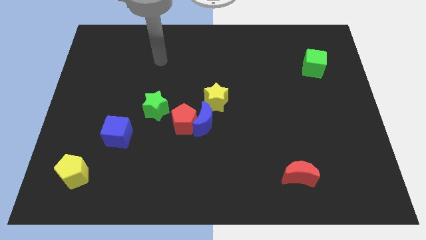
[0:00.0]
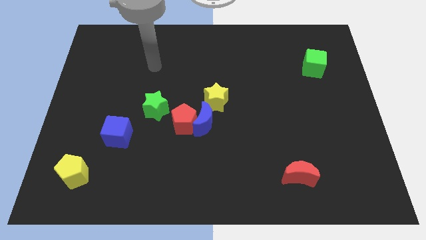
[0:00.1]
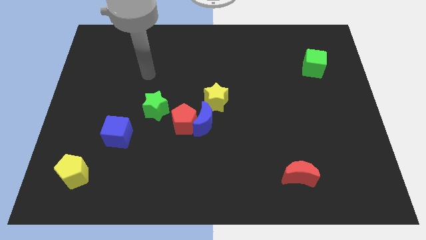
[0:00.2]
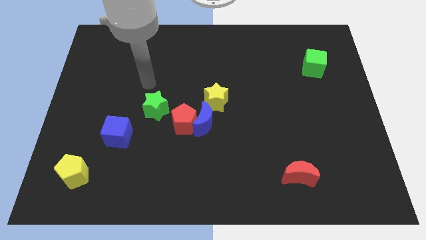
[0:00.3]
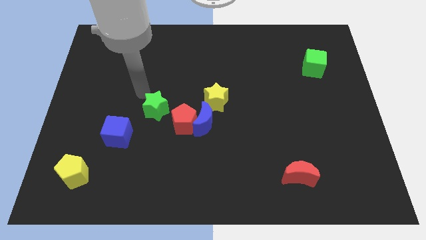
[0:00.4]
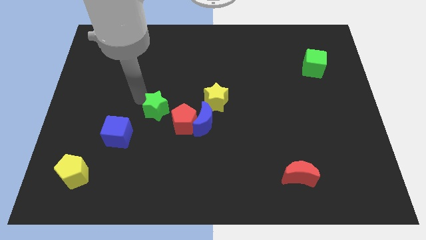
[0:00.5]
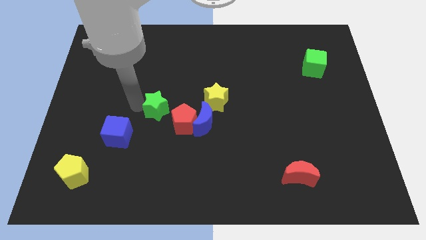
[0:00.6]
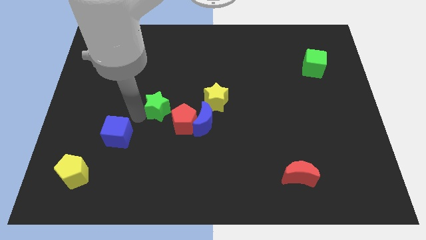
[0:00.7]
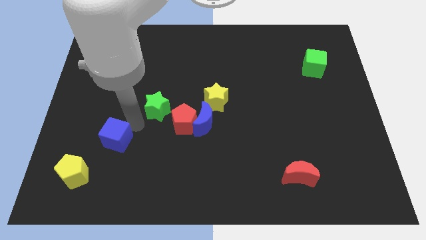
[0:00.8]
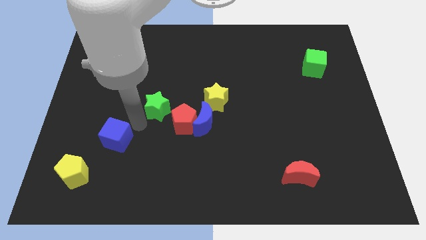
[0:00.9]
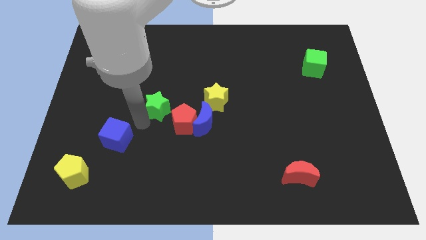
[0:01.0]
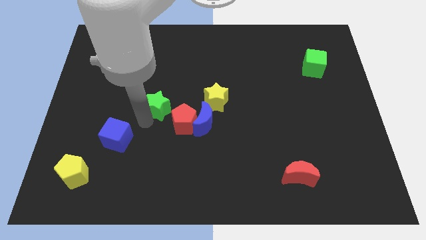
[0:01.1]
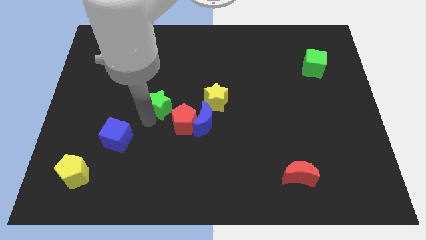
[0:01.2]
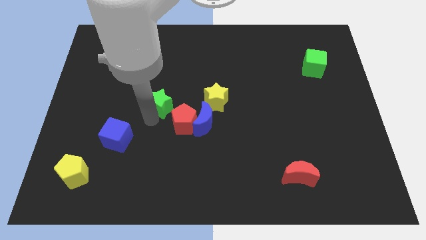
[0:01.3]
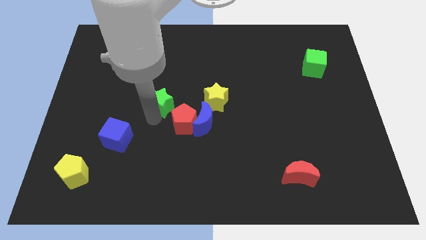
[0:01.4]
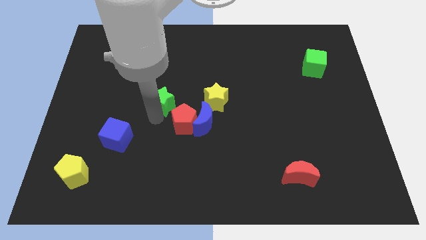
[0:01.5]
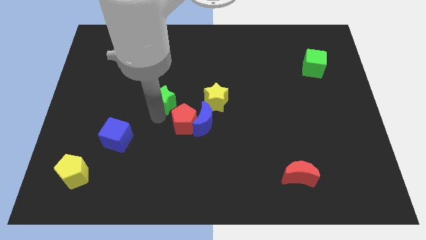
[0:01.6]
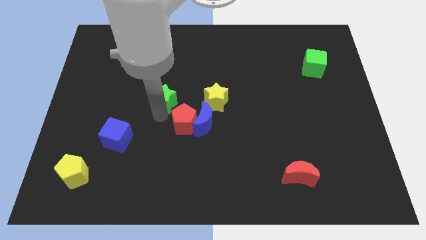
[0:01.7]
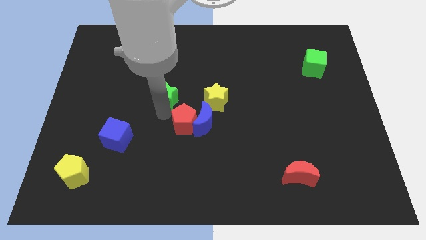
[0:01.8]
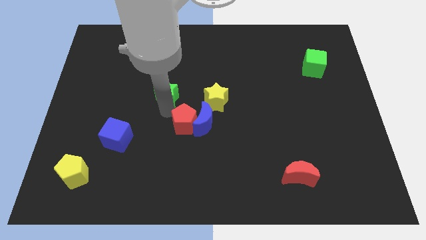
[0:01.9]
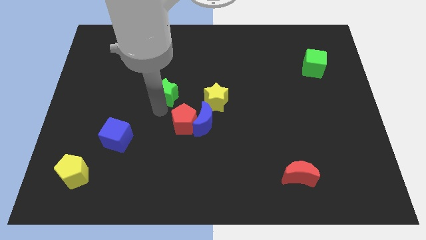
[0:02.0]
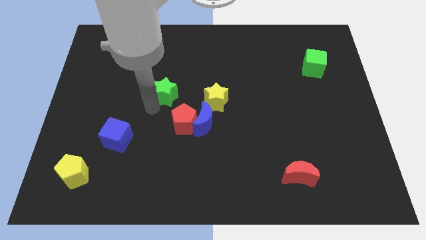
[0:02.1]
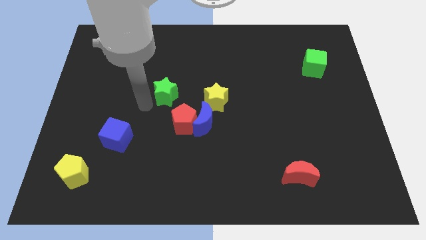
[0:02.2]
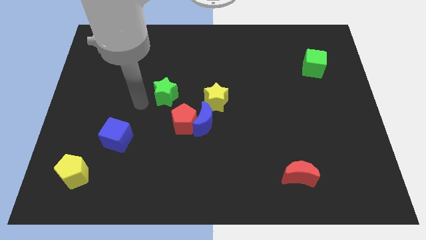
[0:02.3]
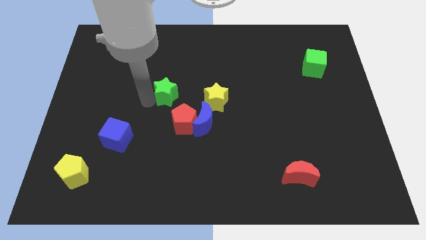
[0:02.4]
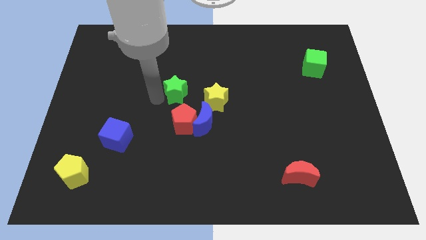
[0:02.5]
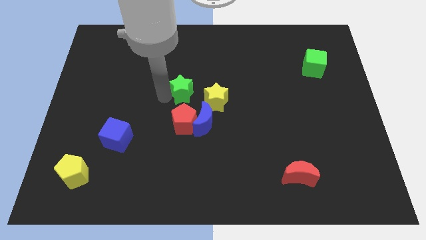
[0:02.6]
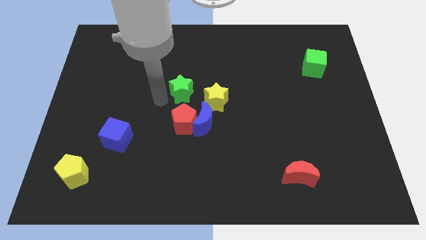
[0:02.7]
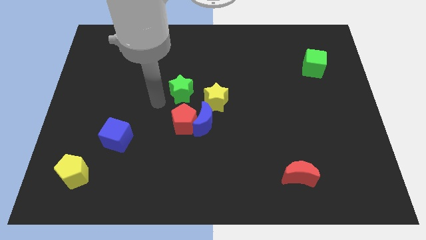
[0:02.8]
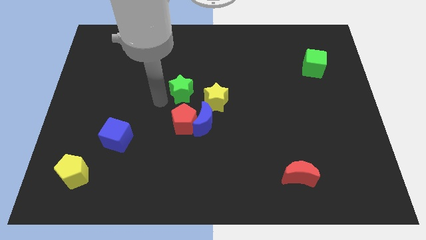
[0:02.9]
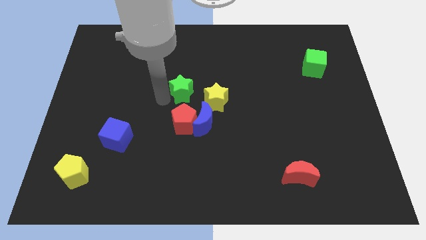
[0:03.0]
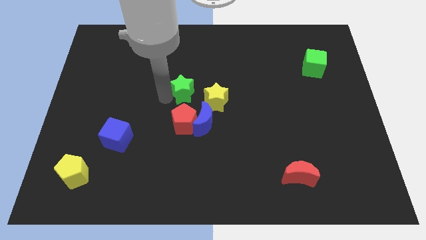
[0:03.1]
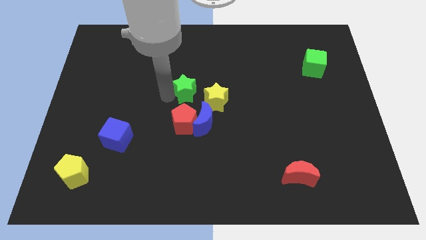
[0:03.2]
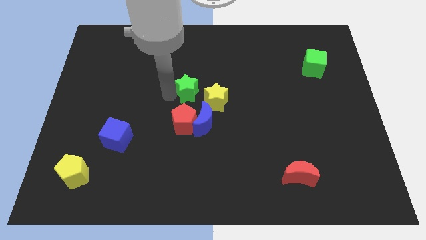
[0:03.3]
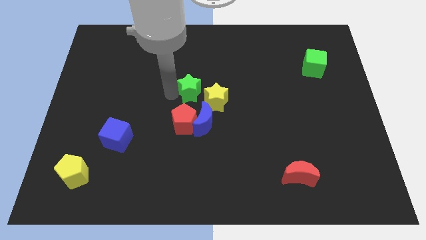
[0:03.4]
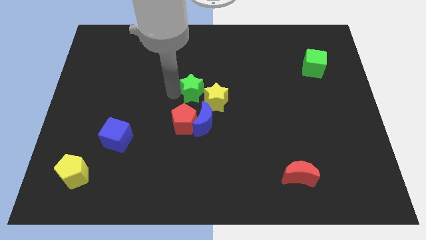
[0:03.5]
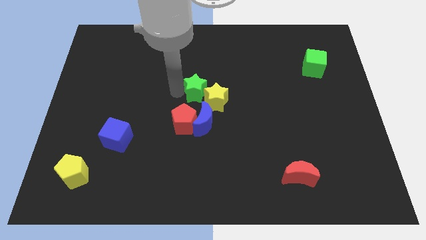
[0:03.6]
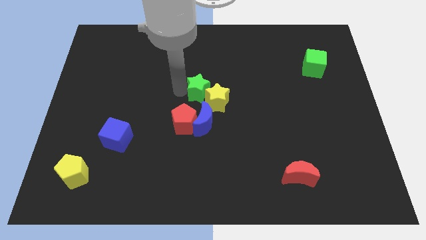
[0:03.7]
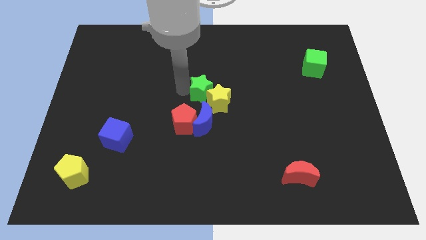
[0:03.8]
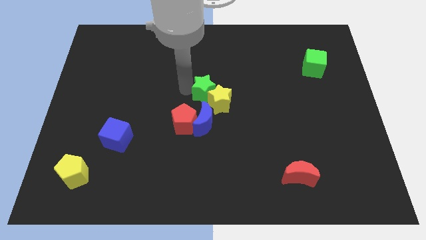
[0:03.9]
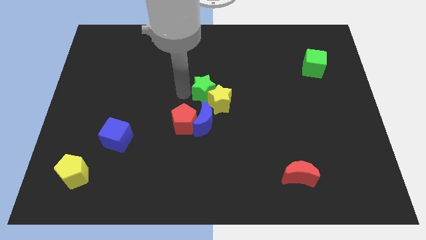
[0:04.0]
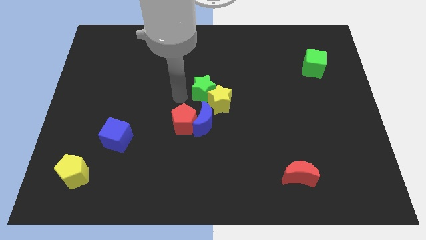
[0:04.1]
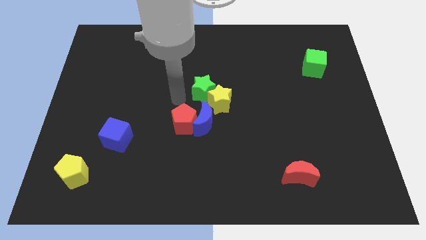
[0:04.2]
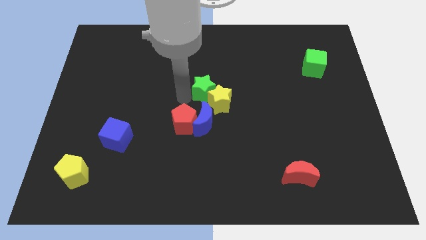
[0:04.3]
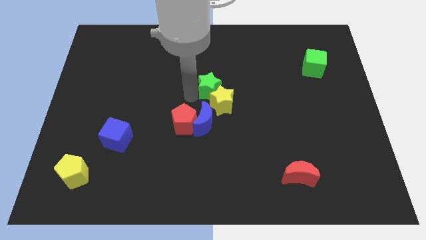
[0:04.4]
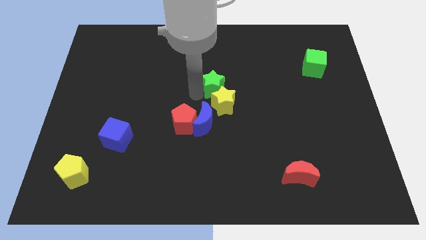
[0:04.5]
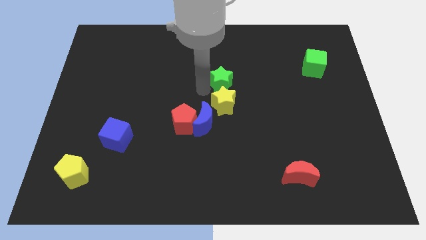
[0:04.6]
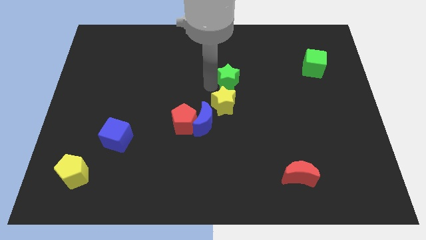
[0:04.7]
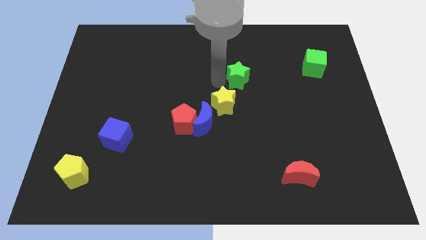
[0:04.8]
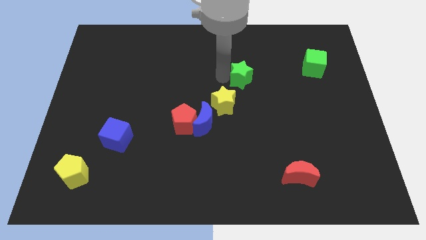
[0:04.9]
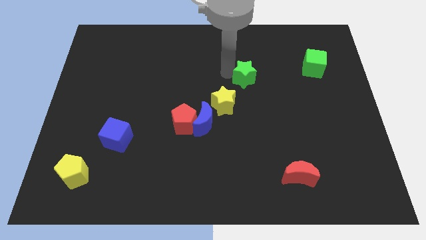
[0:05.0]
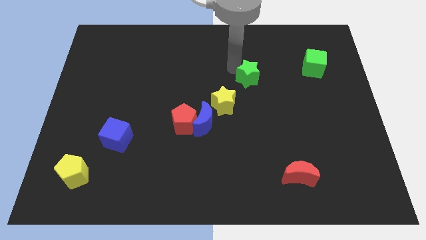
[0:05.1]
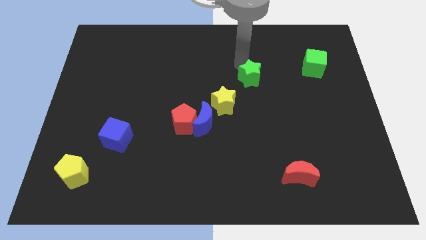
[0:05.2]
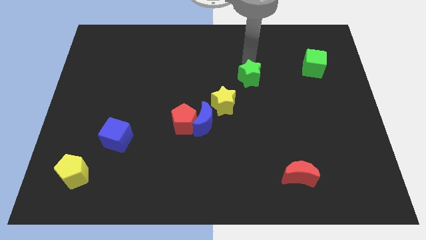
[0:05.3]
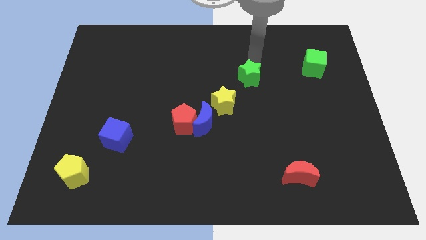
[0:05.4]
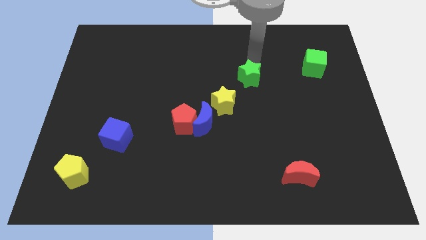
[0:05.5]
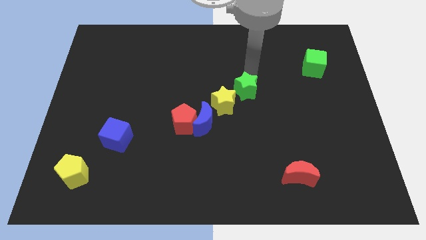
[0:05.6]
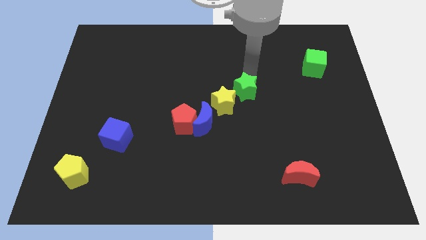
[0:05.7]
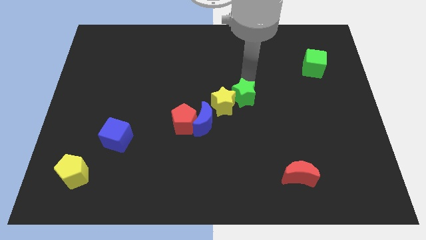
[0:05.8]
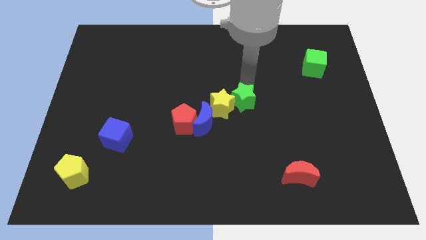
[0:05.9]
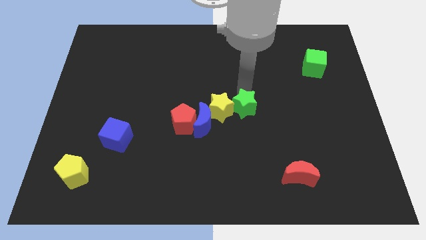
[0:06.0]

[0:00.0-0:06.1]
move the green star to the right of the blue moon

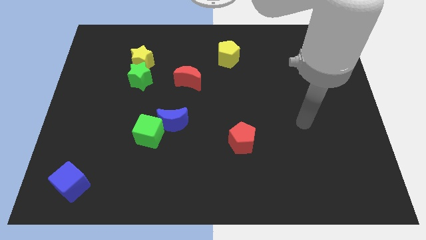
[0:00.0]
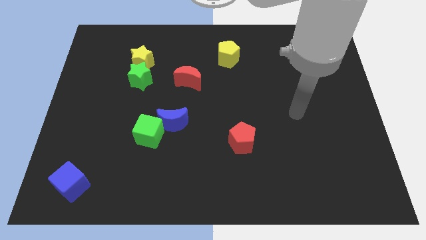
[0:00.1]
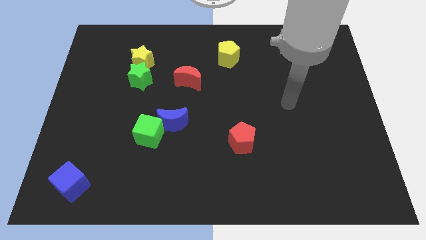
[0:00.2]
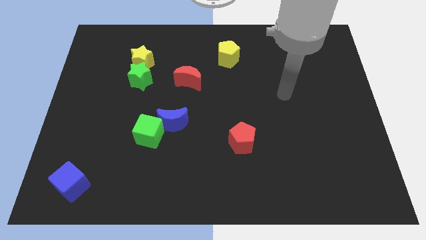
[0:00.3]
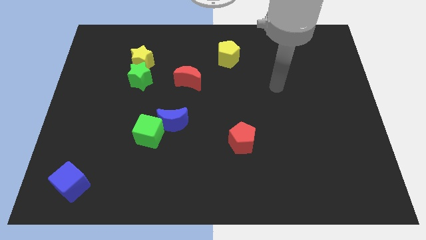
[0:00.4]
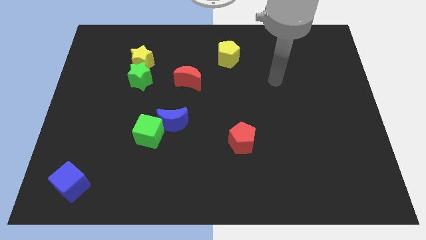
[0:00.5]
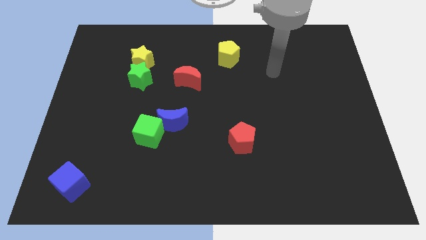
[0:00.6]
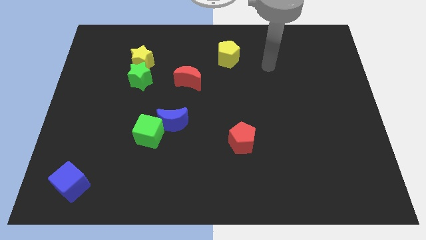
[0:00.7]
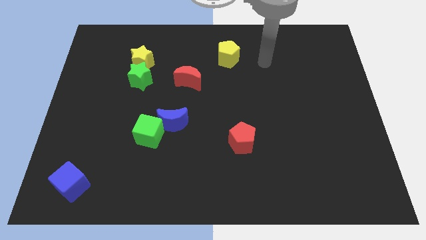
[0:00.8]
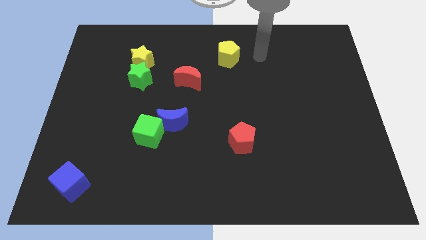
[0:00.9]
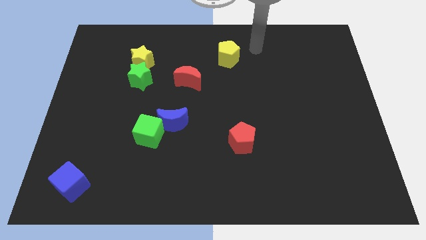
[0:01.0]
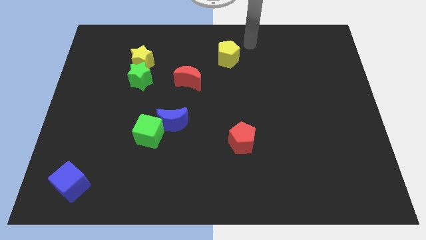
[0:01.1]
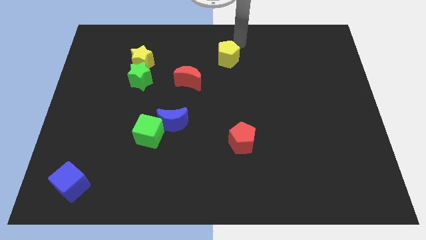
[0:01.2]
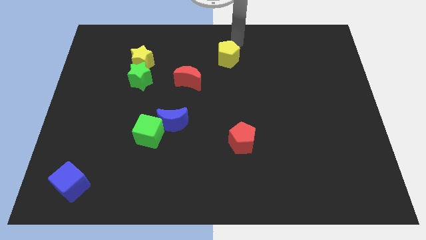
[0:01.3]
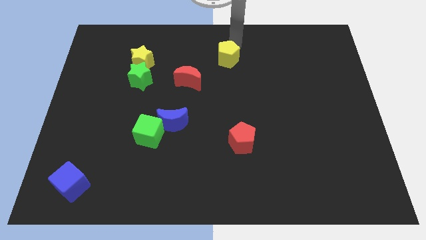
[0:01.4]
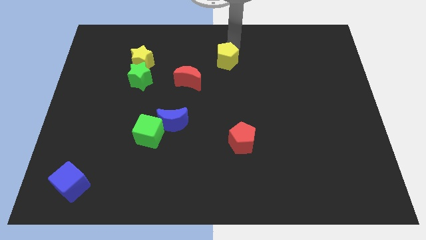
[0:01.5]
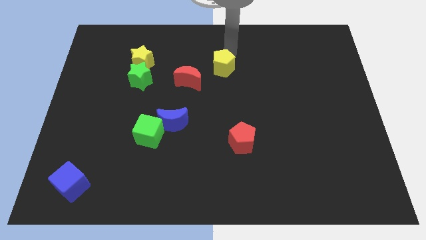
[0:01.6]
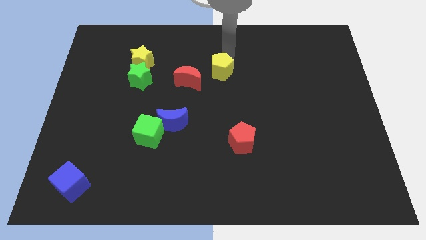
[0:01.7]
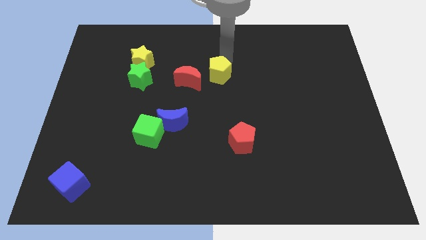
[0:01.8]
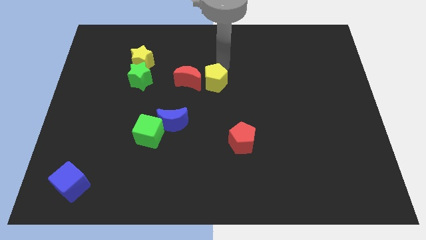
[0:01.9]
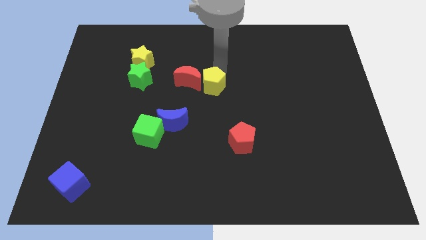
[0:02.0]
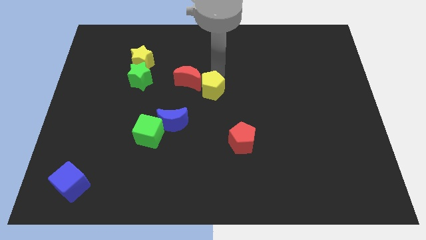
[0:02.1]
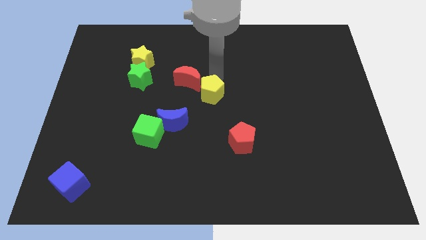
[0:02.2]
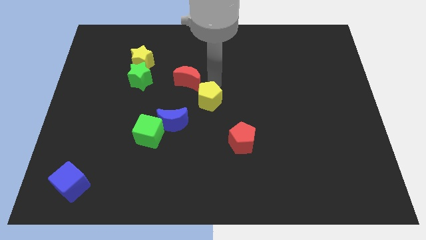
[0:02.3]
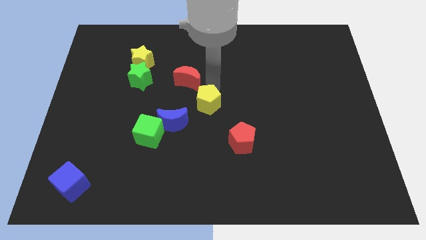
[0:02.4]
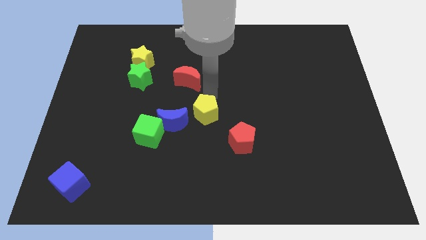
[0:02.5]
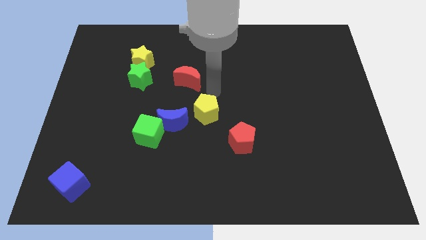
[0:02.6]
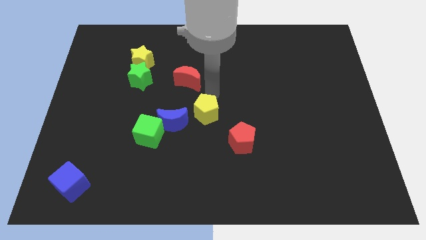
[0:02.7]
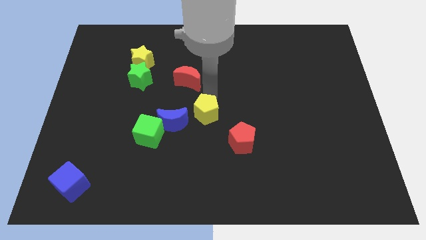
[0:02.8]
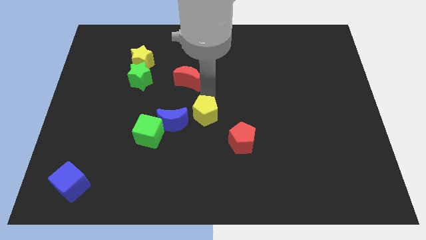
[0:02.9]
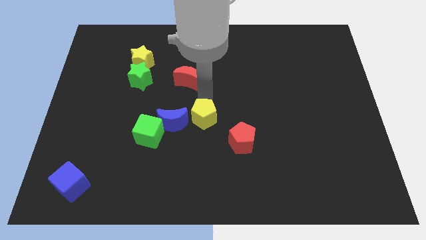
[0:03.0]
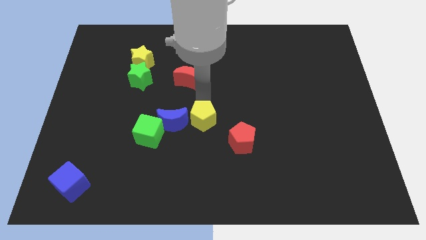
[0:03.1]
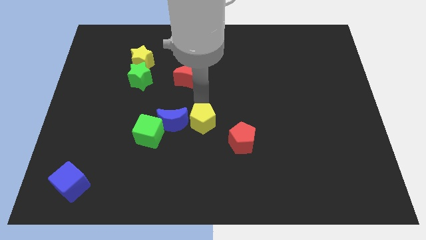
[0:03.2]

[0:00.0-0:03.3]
push the yellow pentagon to the bottom right of the blue moon
